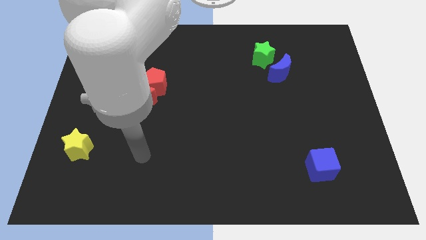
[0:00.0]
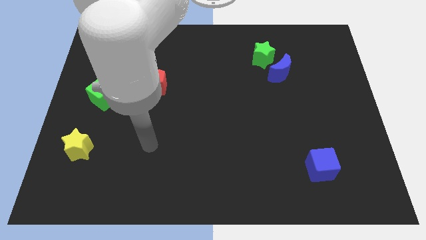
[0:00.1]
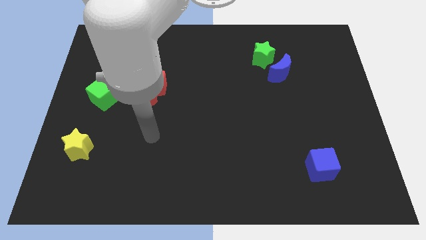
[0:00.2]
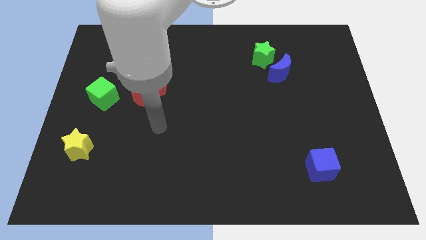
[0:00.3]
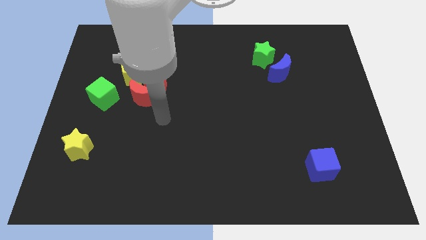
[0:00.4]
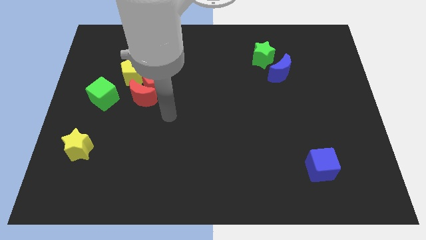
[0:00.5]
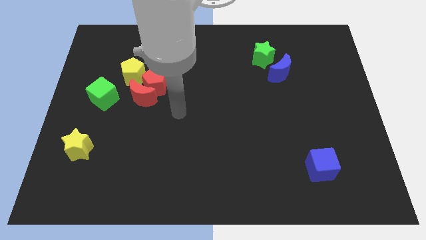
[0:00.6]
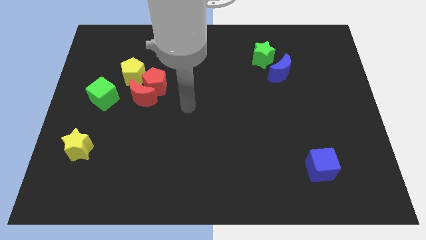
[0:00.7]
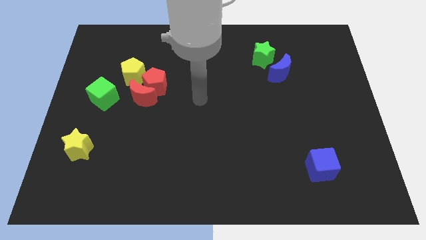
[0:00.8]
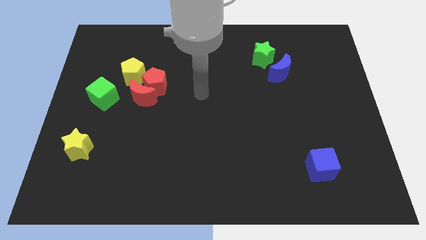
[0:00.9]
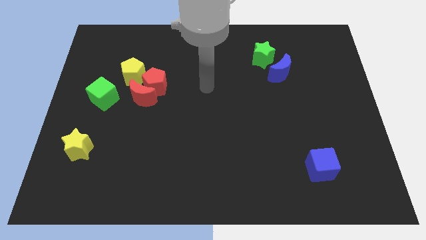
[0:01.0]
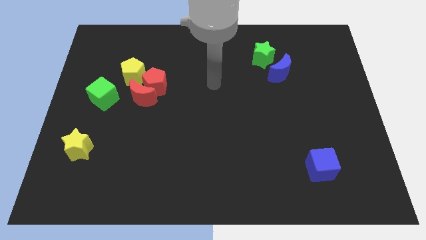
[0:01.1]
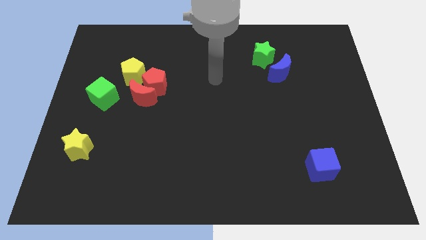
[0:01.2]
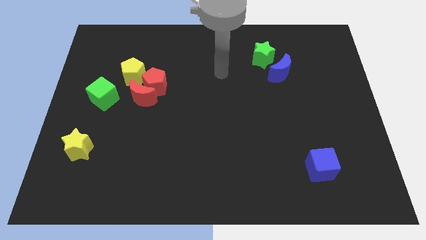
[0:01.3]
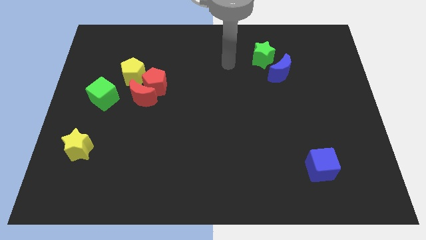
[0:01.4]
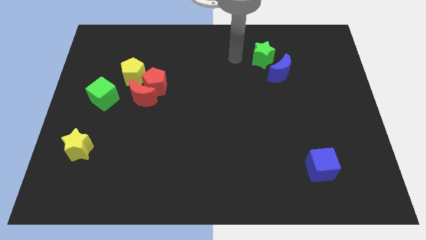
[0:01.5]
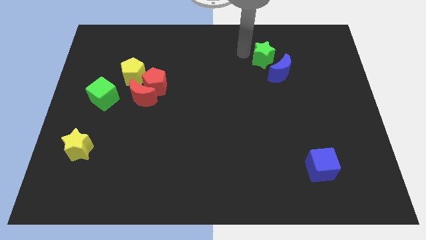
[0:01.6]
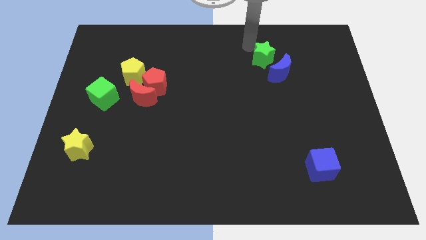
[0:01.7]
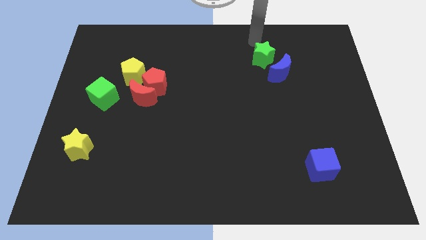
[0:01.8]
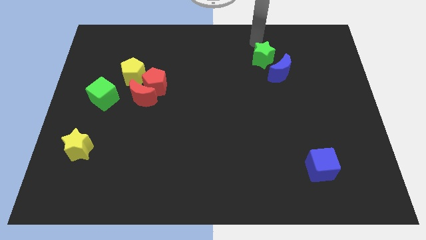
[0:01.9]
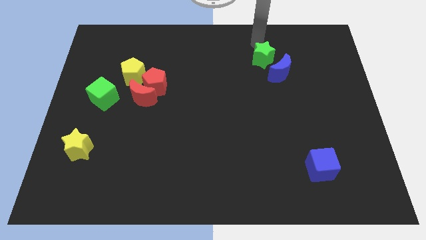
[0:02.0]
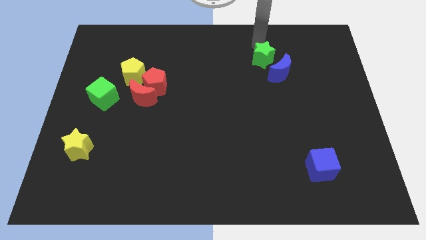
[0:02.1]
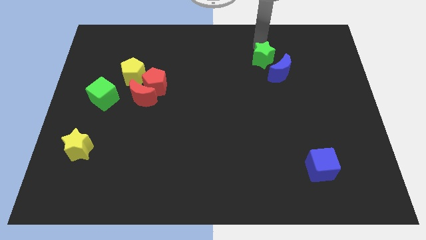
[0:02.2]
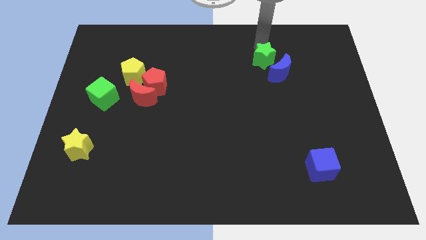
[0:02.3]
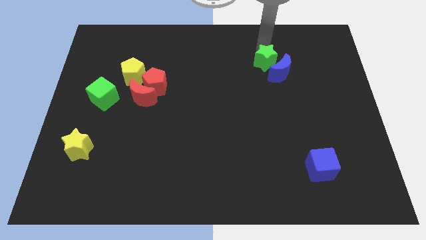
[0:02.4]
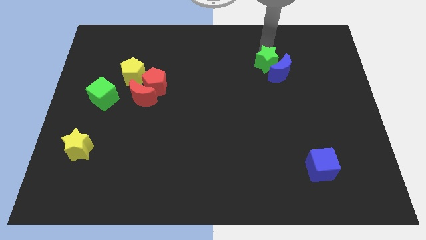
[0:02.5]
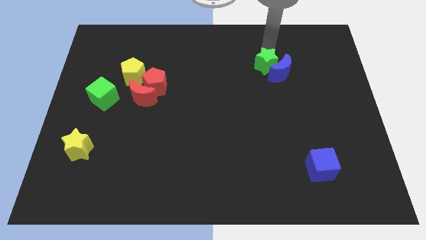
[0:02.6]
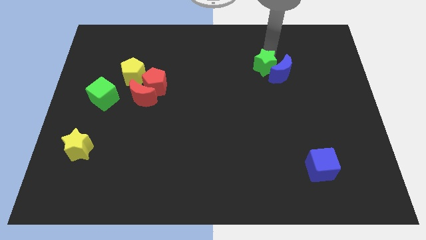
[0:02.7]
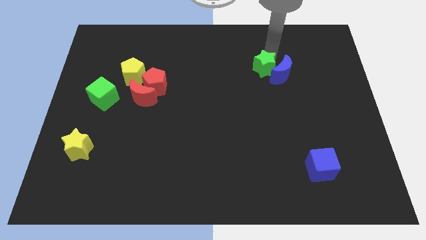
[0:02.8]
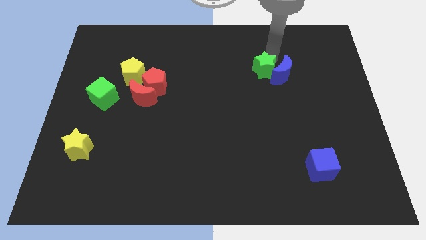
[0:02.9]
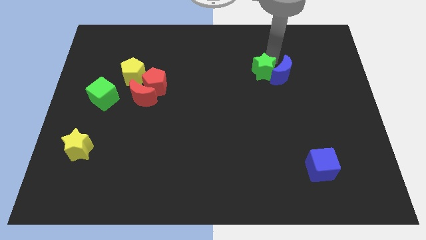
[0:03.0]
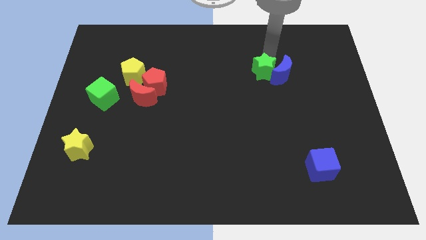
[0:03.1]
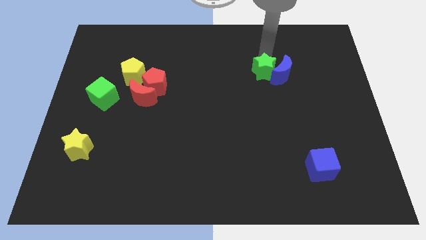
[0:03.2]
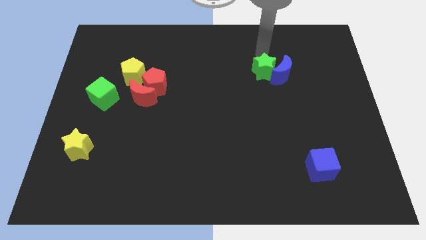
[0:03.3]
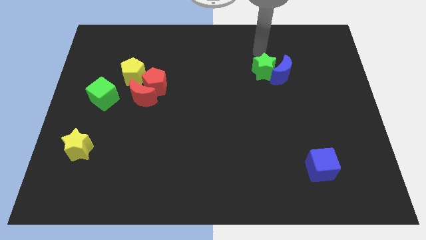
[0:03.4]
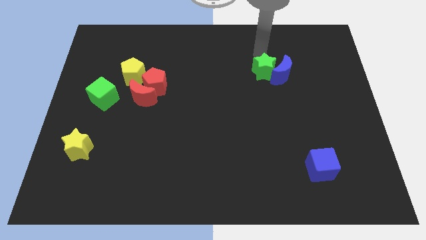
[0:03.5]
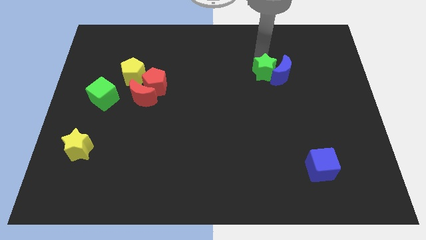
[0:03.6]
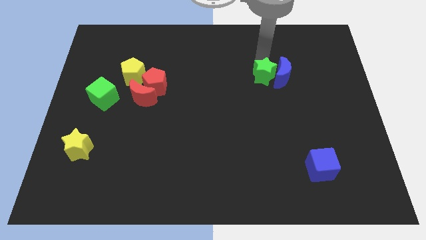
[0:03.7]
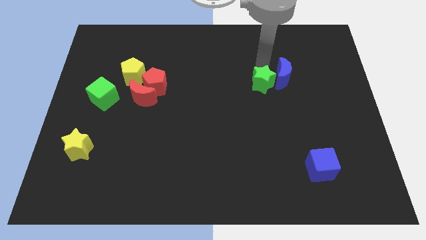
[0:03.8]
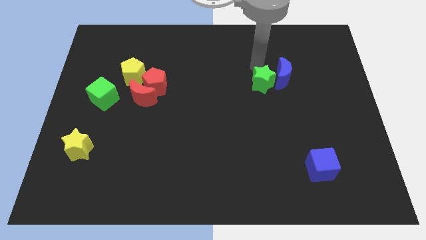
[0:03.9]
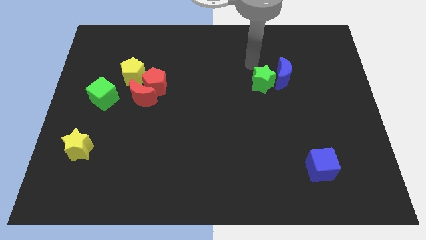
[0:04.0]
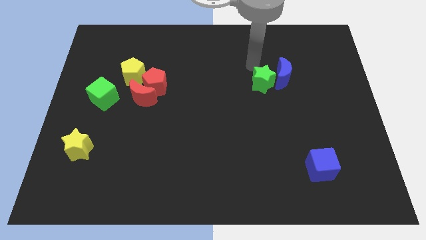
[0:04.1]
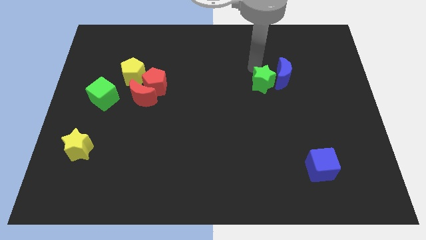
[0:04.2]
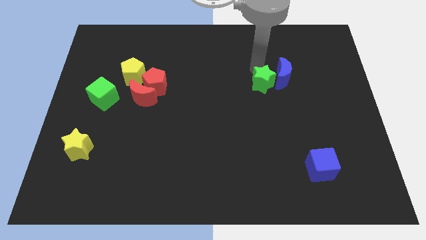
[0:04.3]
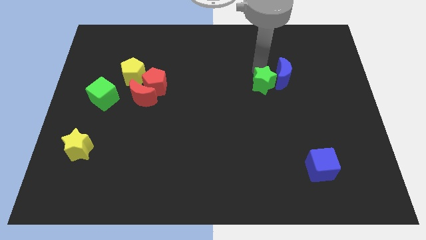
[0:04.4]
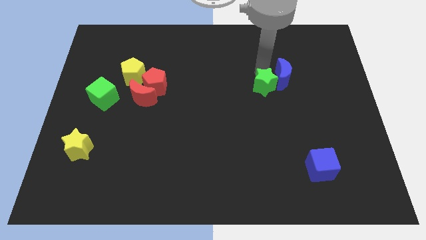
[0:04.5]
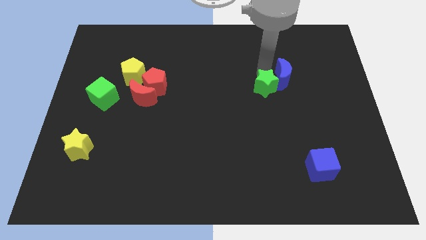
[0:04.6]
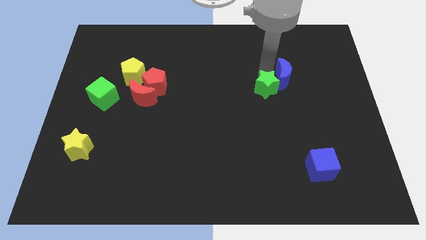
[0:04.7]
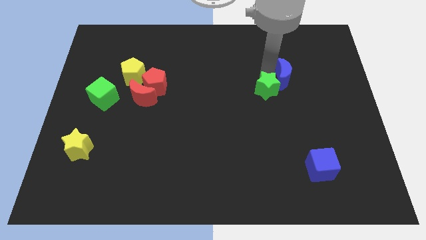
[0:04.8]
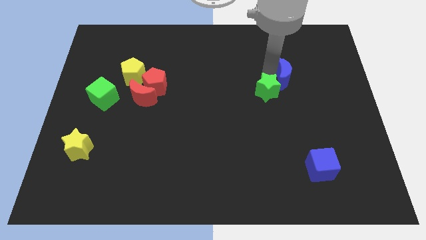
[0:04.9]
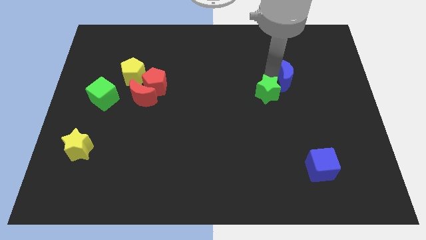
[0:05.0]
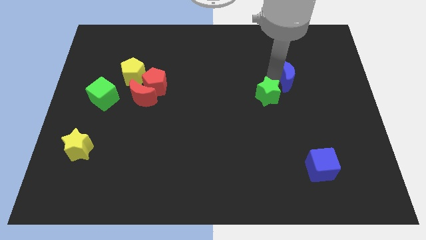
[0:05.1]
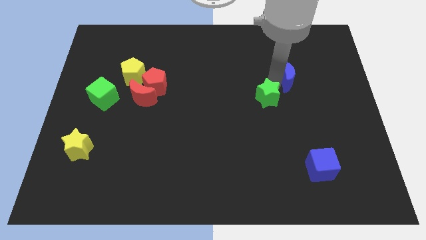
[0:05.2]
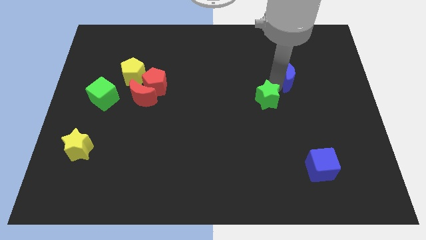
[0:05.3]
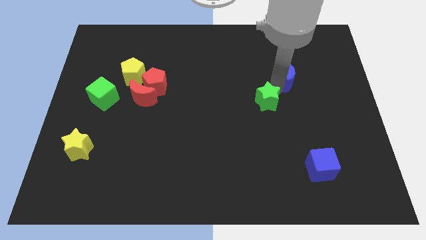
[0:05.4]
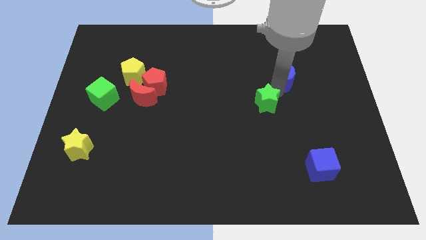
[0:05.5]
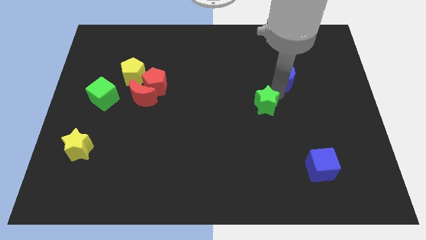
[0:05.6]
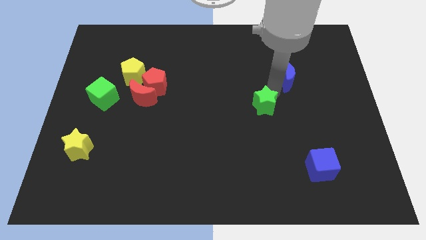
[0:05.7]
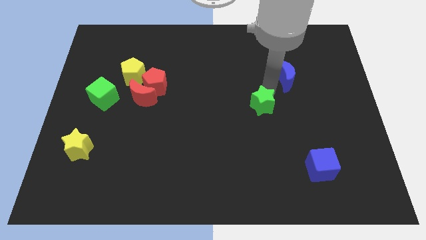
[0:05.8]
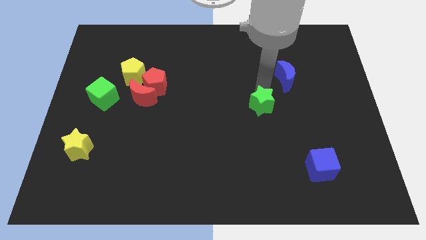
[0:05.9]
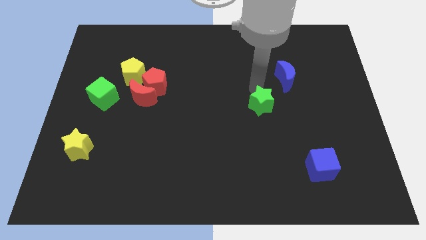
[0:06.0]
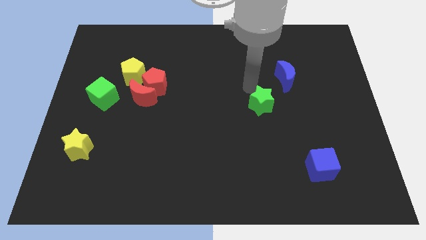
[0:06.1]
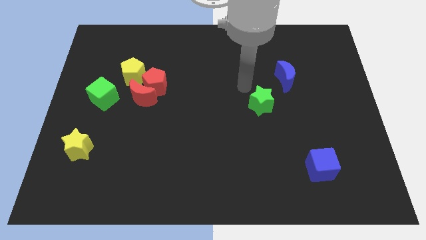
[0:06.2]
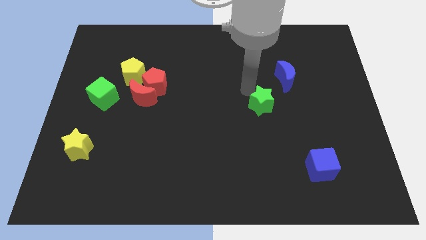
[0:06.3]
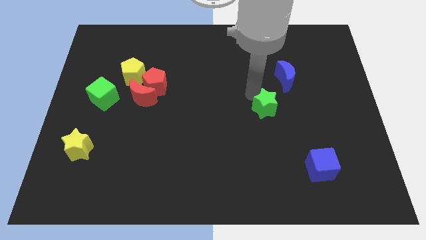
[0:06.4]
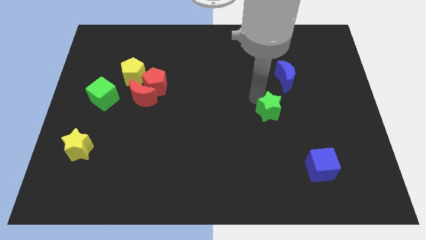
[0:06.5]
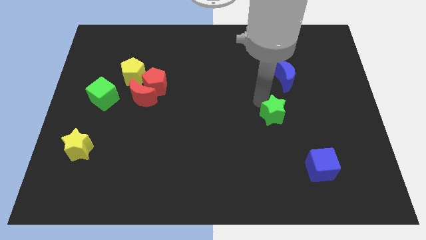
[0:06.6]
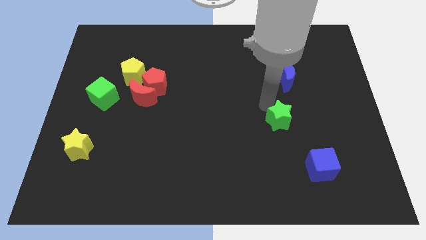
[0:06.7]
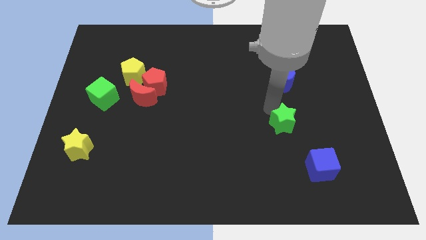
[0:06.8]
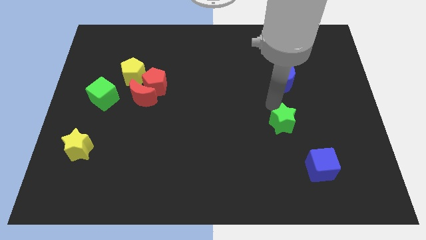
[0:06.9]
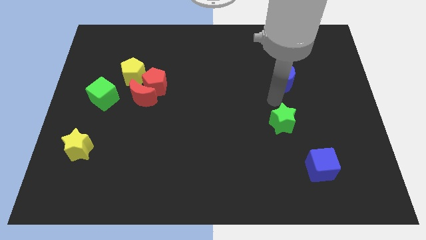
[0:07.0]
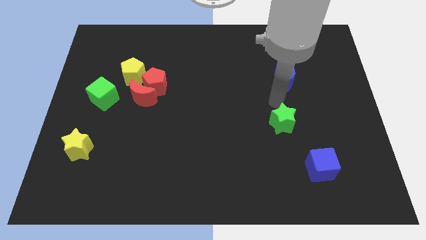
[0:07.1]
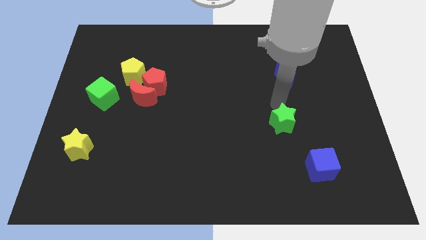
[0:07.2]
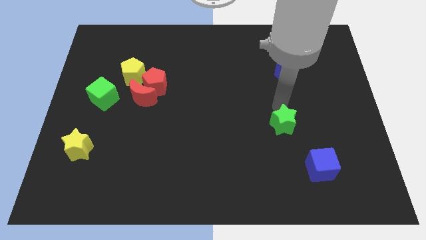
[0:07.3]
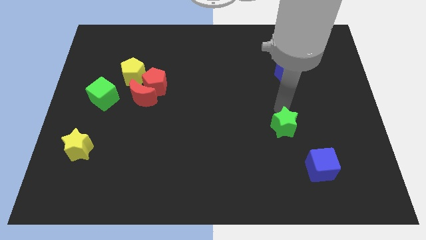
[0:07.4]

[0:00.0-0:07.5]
slide the green star to the top left side of the blue cube
